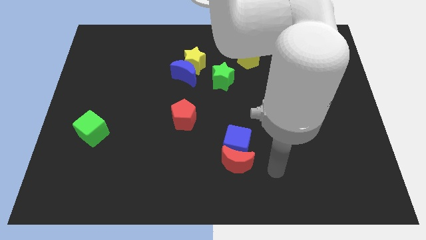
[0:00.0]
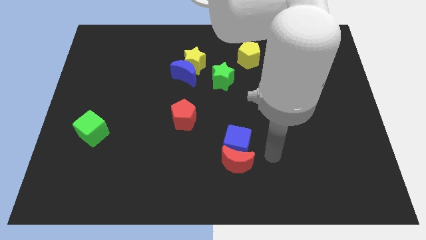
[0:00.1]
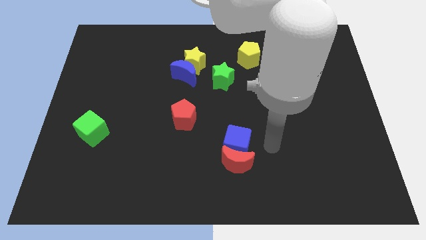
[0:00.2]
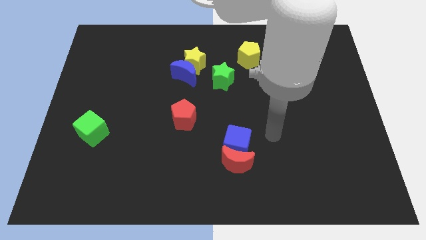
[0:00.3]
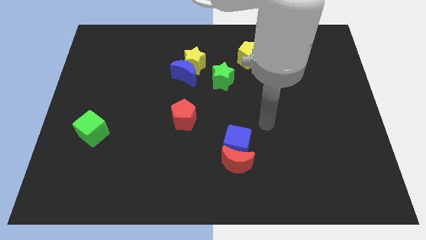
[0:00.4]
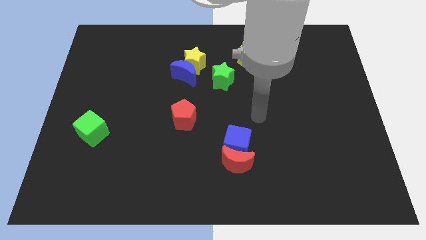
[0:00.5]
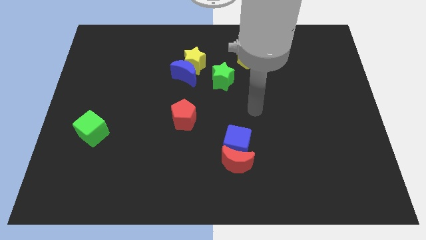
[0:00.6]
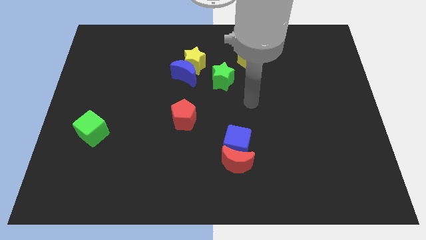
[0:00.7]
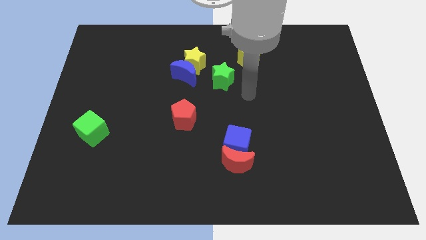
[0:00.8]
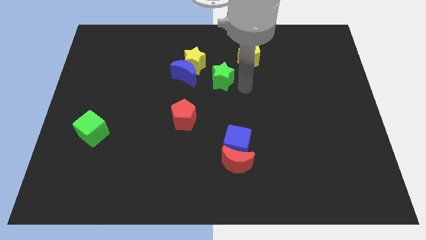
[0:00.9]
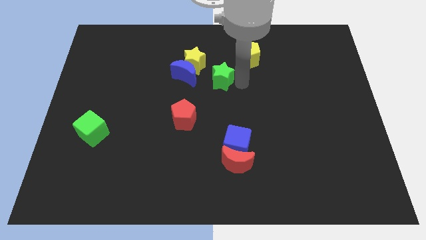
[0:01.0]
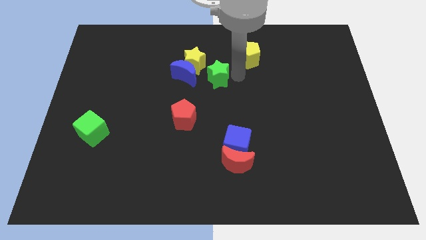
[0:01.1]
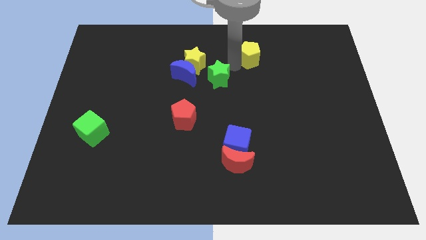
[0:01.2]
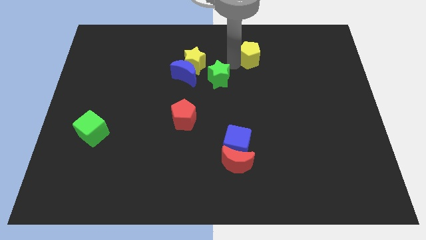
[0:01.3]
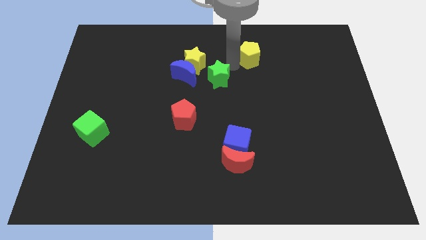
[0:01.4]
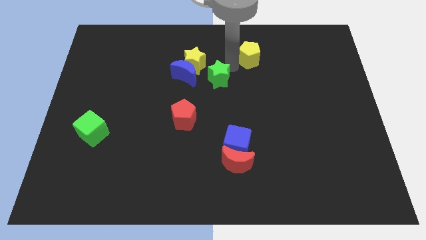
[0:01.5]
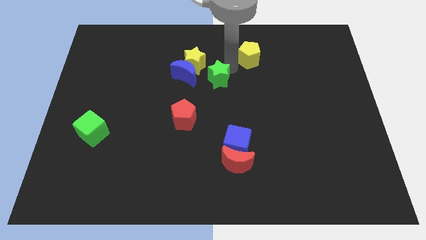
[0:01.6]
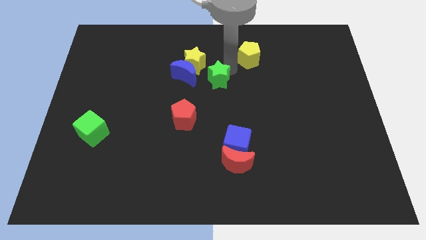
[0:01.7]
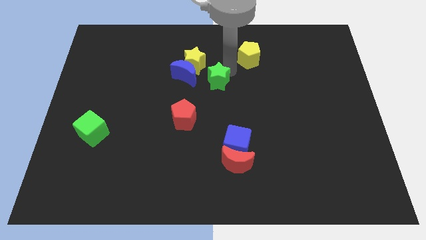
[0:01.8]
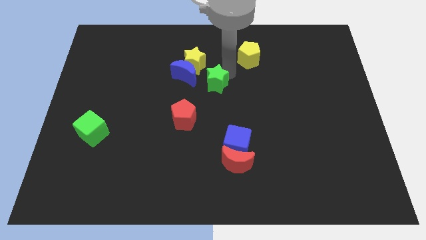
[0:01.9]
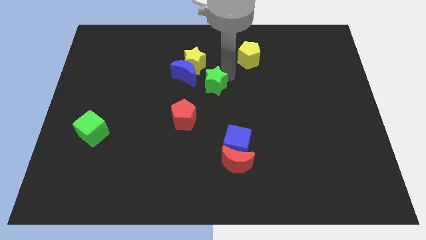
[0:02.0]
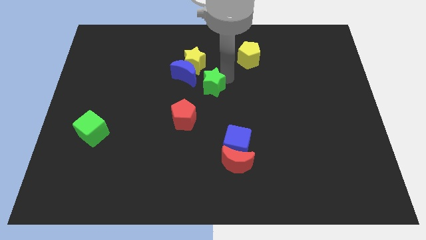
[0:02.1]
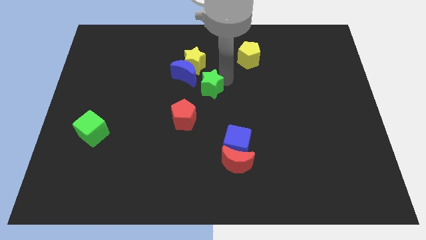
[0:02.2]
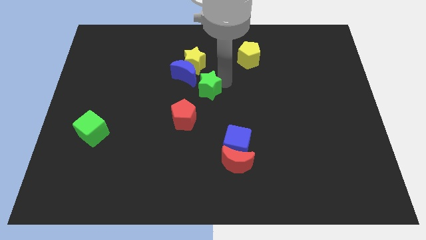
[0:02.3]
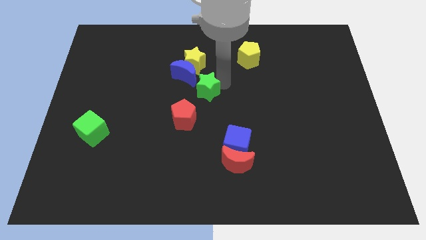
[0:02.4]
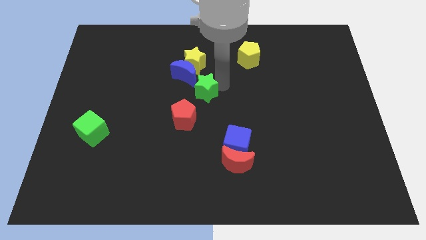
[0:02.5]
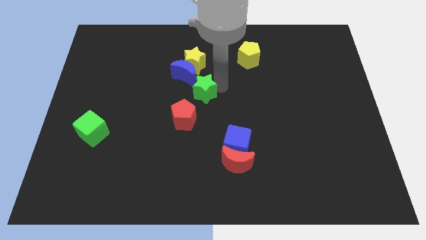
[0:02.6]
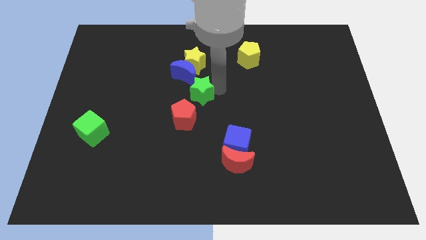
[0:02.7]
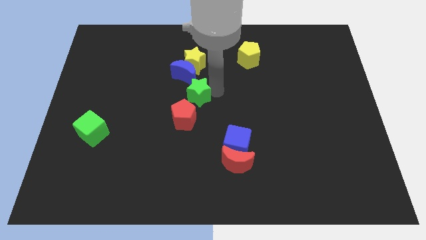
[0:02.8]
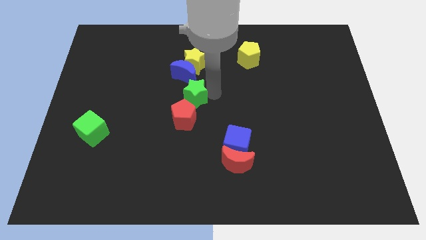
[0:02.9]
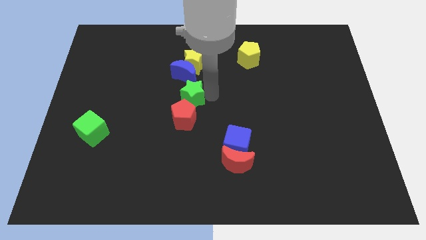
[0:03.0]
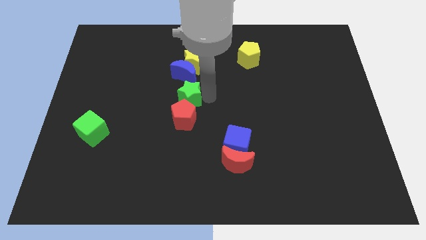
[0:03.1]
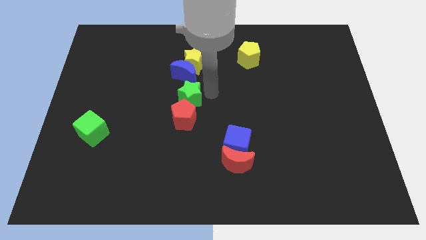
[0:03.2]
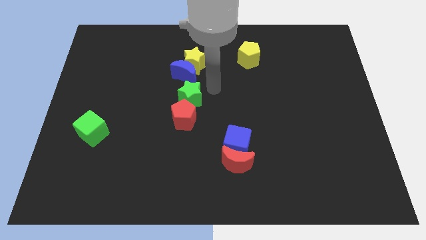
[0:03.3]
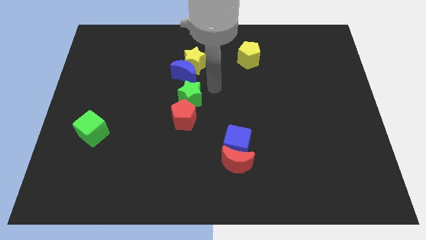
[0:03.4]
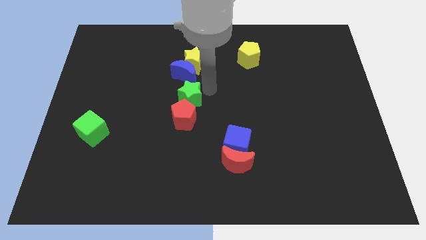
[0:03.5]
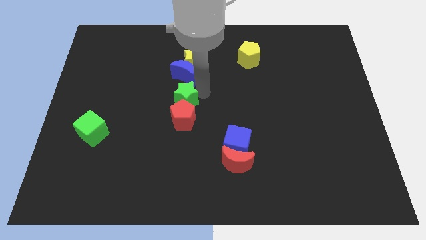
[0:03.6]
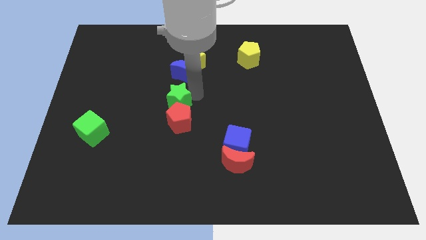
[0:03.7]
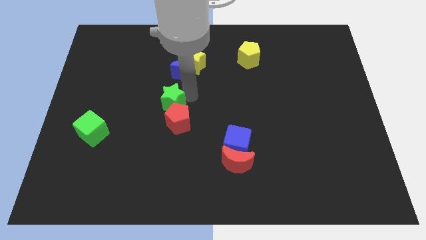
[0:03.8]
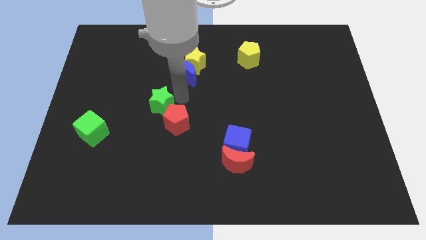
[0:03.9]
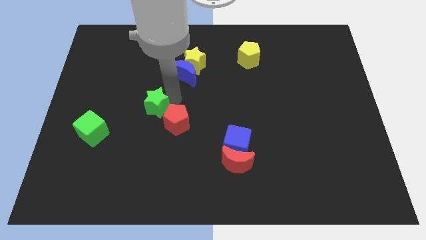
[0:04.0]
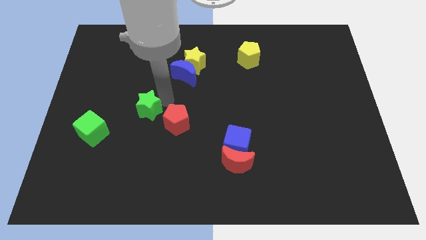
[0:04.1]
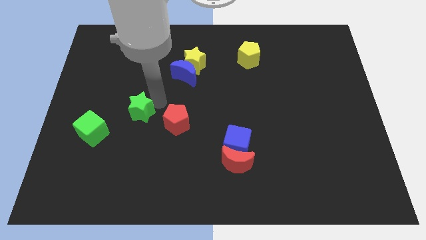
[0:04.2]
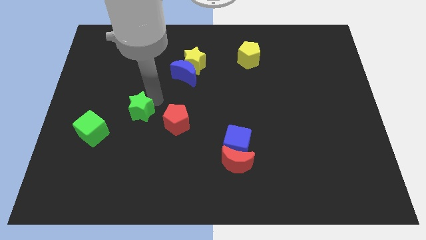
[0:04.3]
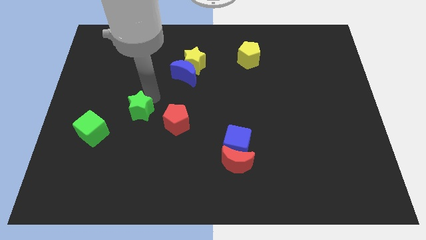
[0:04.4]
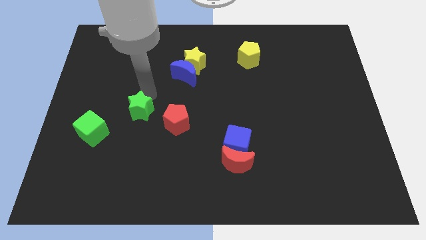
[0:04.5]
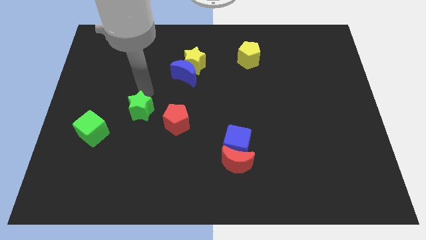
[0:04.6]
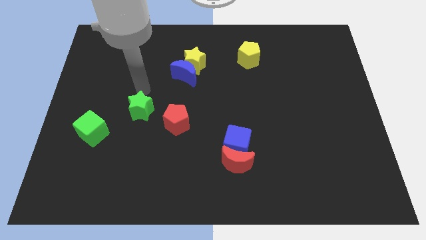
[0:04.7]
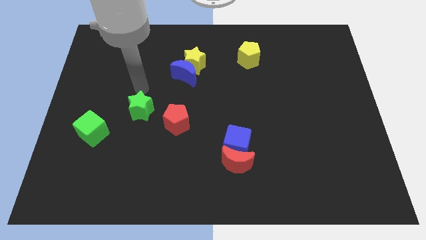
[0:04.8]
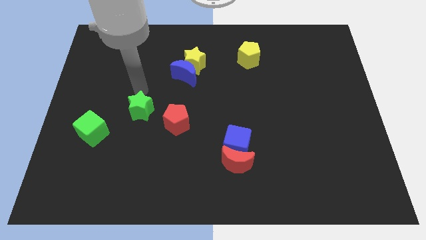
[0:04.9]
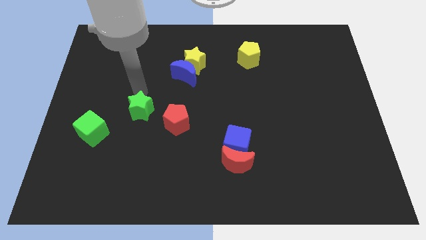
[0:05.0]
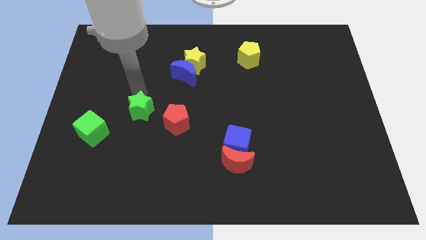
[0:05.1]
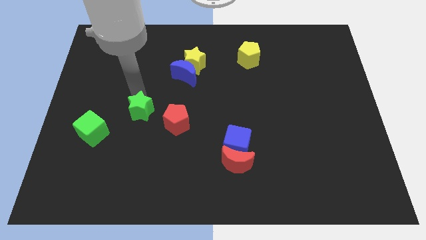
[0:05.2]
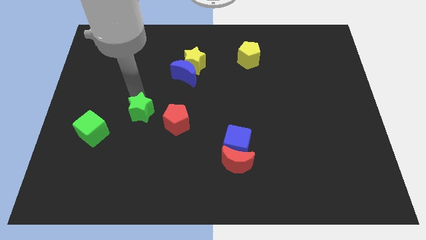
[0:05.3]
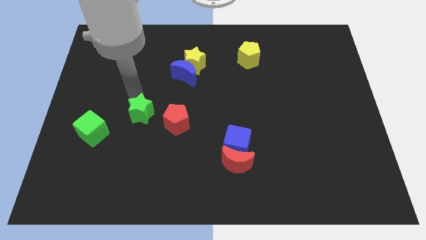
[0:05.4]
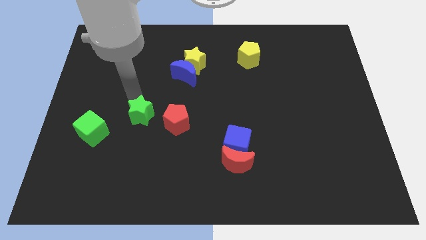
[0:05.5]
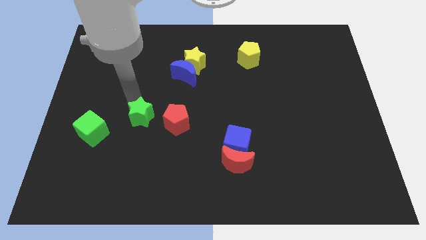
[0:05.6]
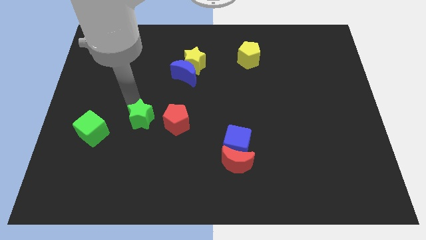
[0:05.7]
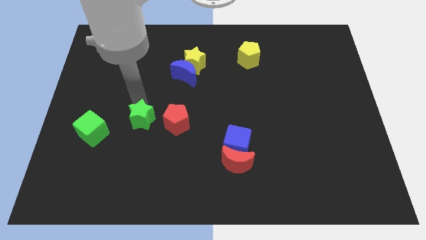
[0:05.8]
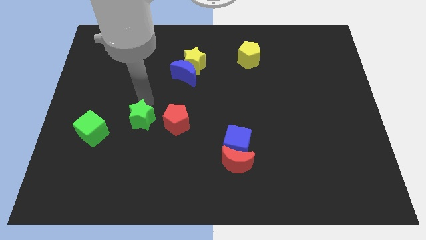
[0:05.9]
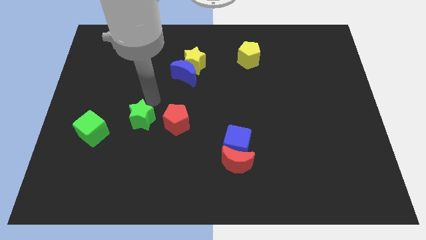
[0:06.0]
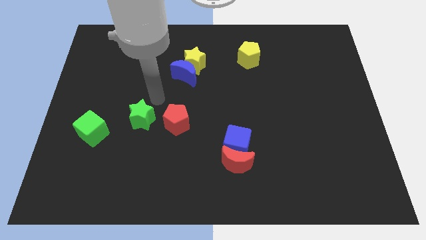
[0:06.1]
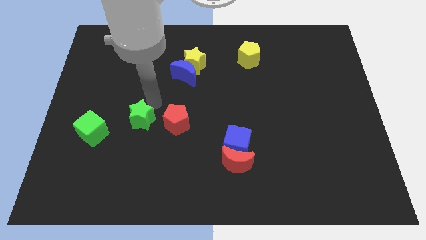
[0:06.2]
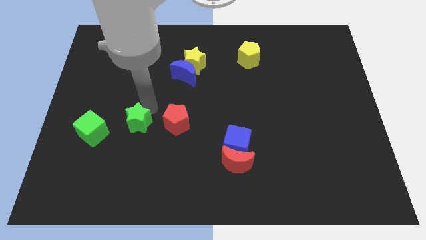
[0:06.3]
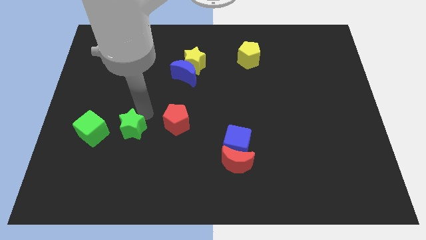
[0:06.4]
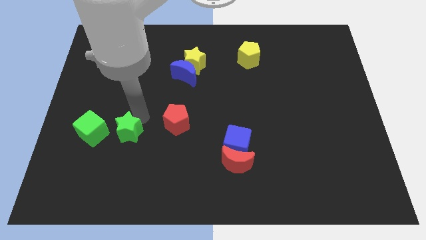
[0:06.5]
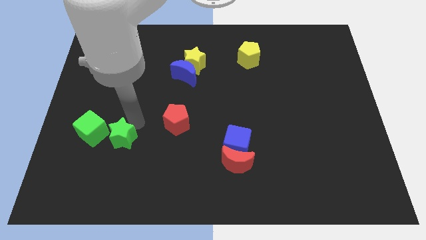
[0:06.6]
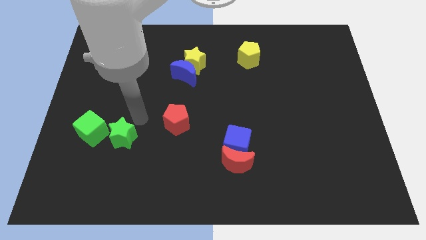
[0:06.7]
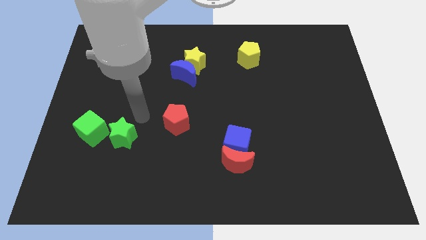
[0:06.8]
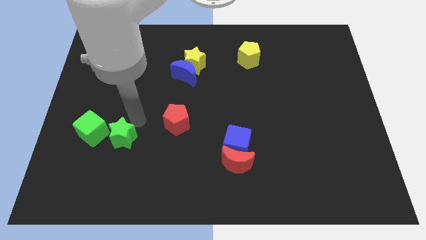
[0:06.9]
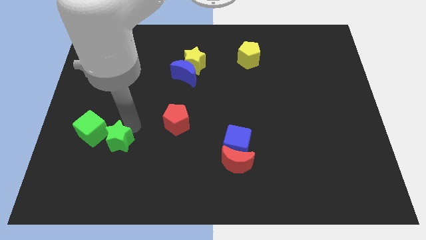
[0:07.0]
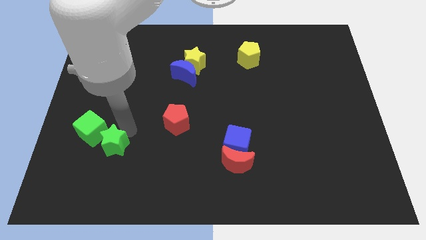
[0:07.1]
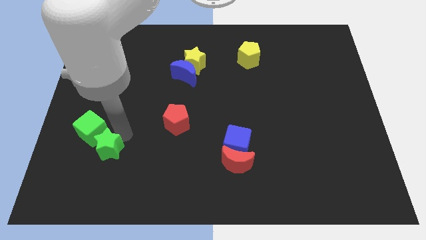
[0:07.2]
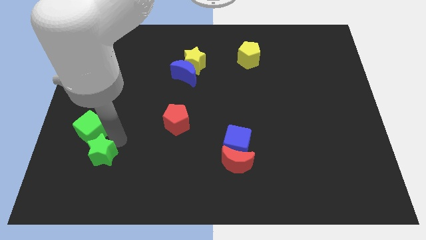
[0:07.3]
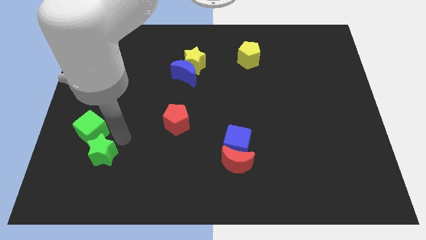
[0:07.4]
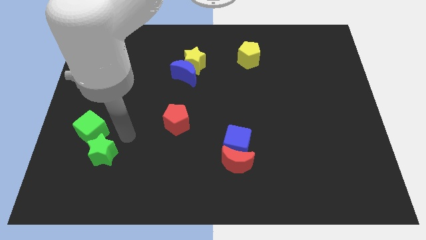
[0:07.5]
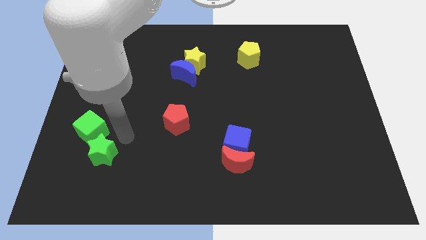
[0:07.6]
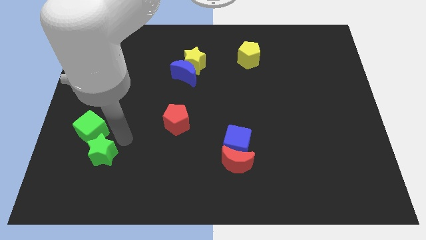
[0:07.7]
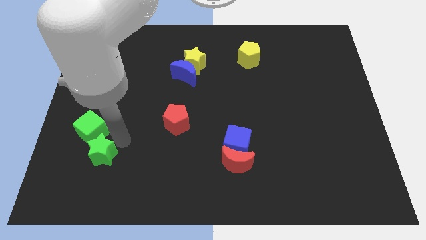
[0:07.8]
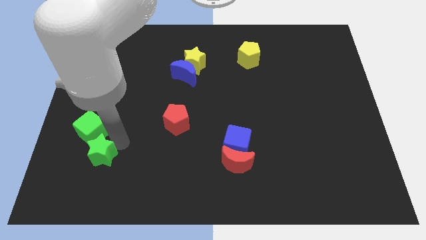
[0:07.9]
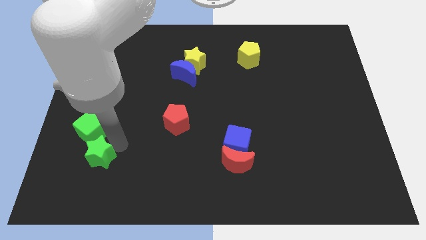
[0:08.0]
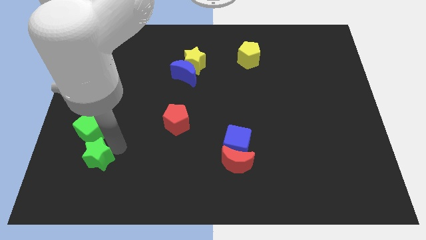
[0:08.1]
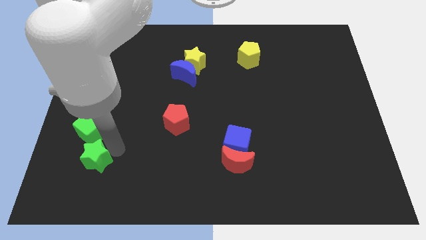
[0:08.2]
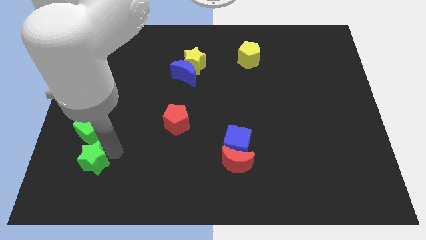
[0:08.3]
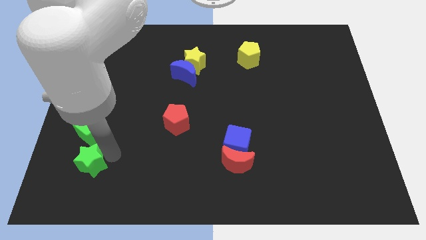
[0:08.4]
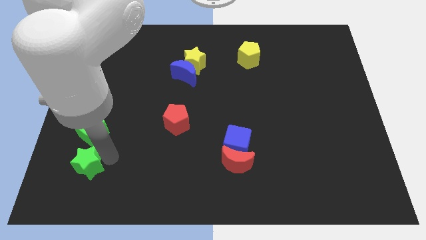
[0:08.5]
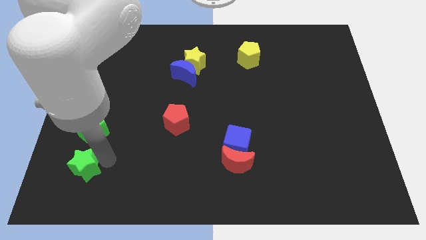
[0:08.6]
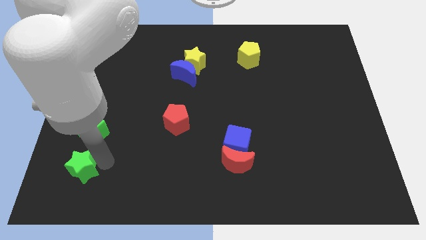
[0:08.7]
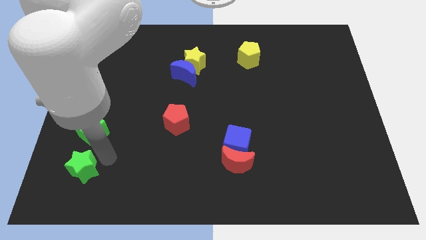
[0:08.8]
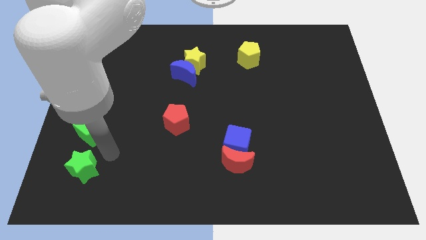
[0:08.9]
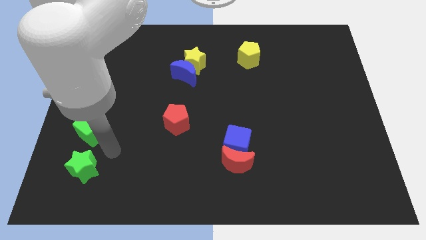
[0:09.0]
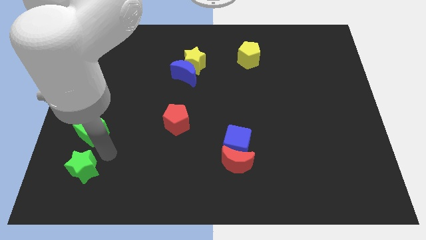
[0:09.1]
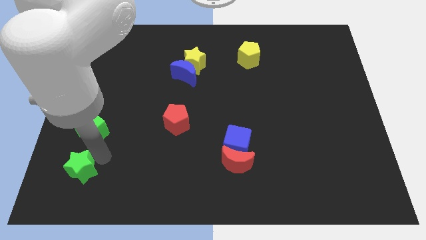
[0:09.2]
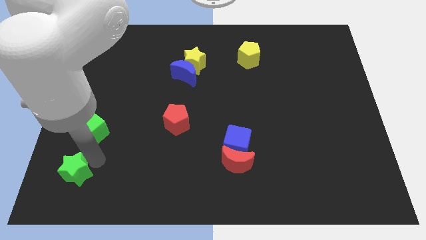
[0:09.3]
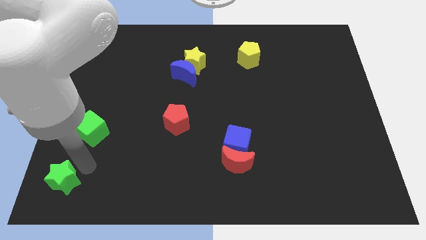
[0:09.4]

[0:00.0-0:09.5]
put the green star to the bottom left corner
